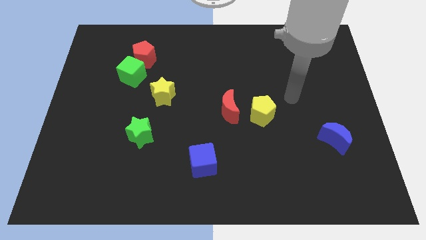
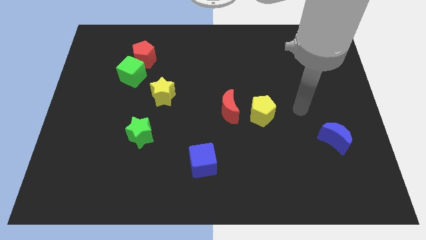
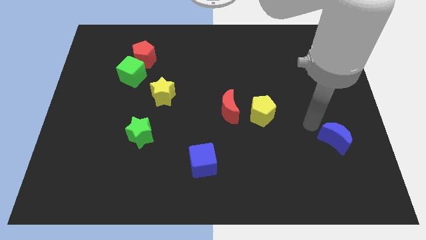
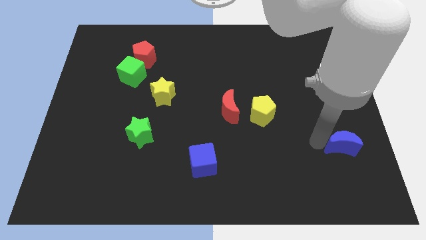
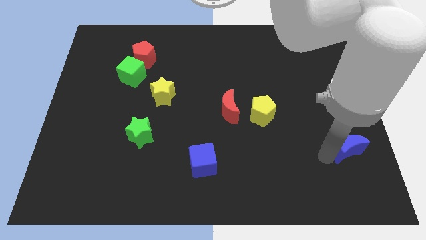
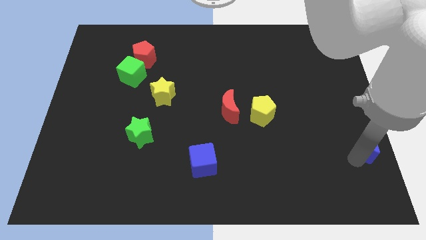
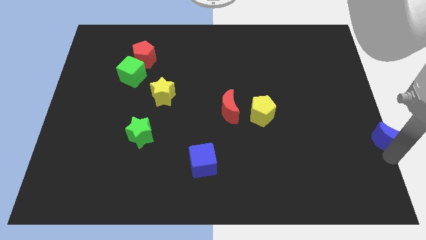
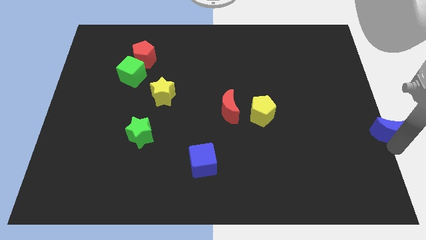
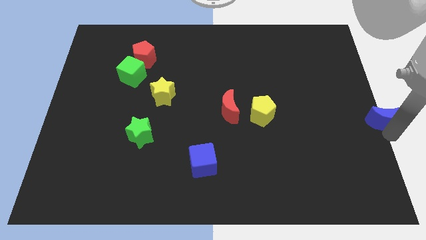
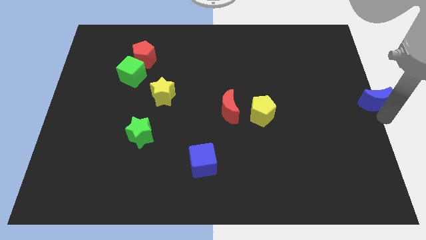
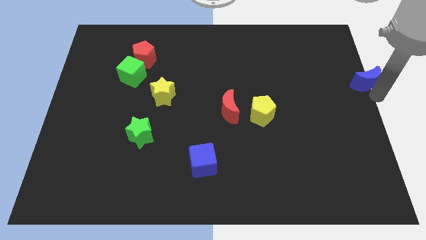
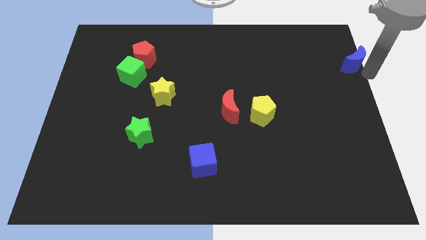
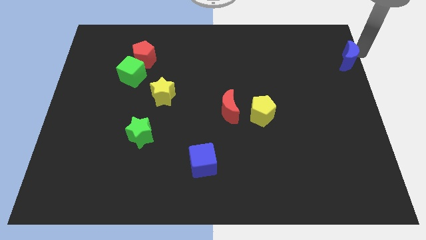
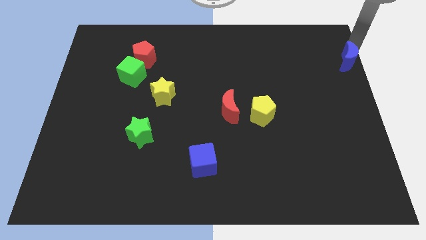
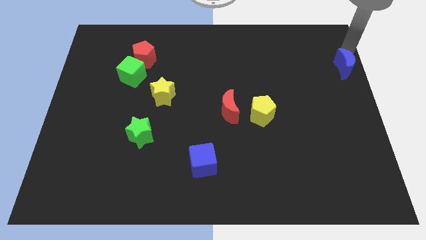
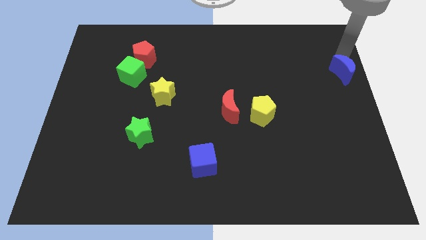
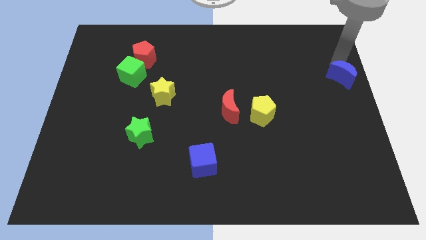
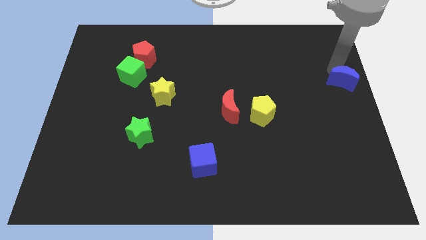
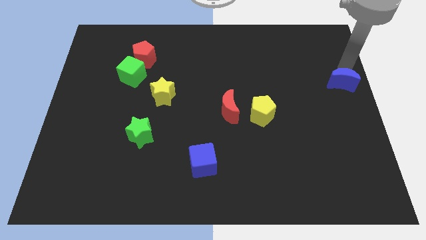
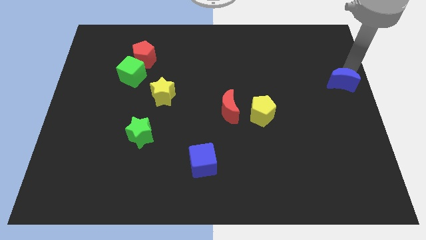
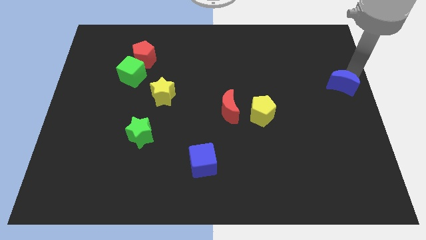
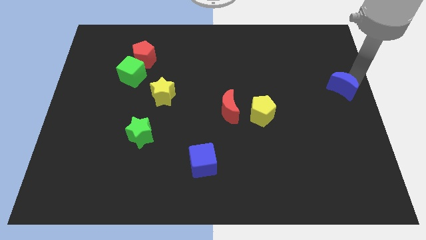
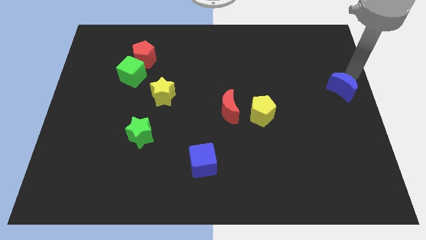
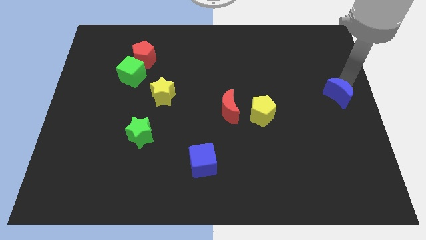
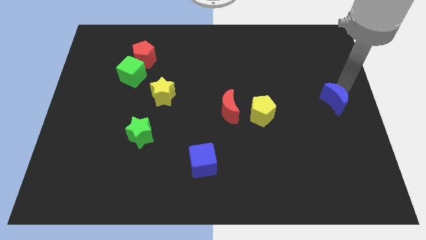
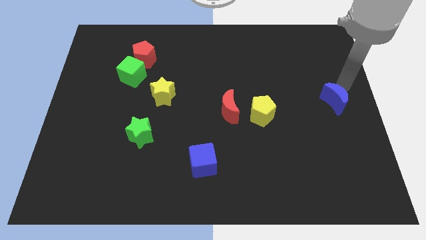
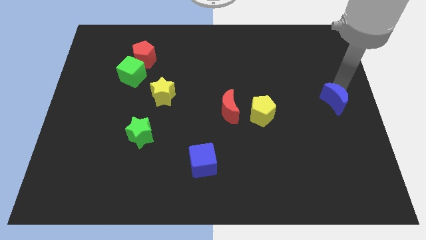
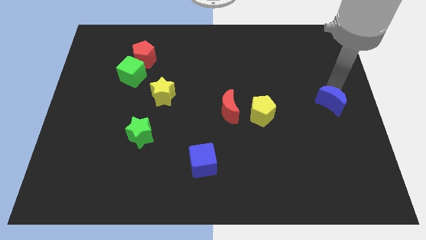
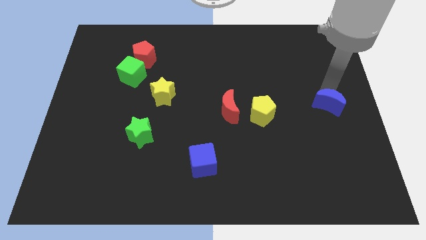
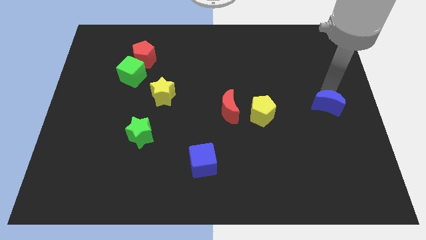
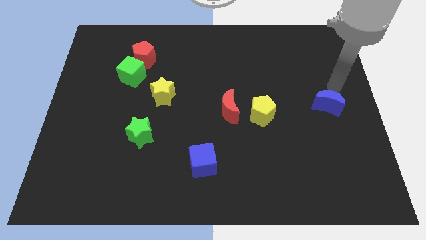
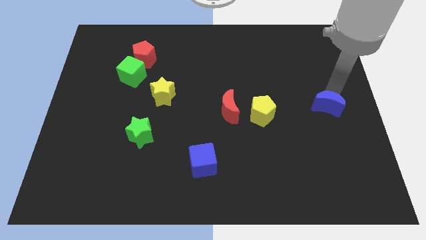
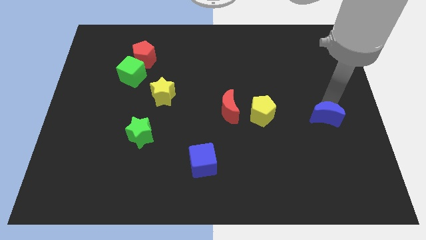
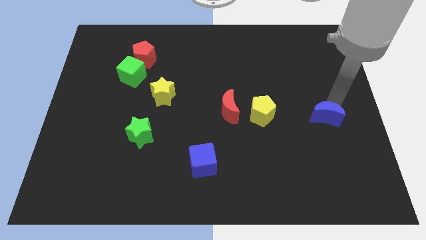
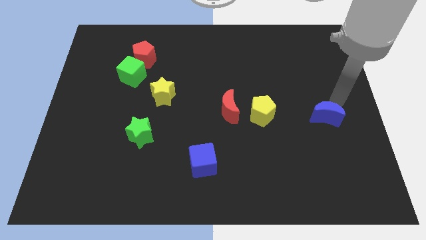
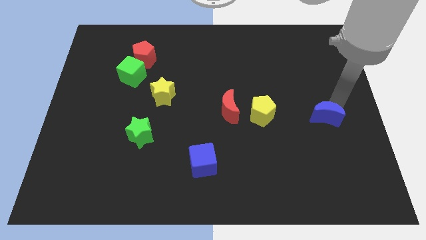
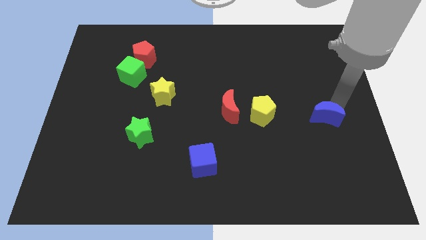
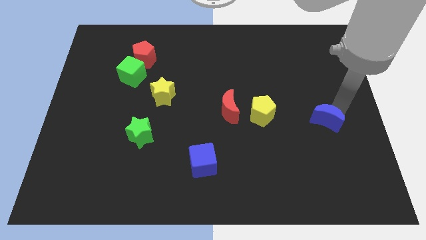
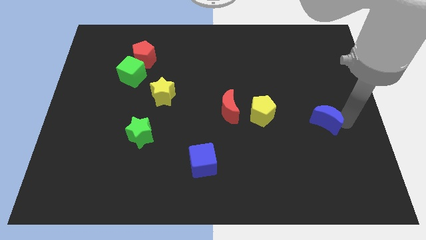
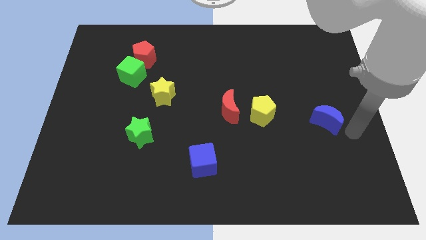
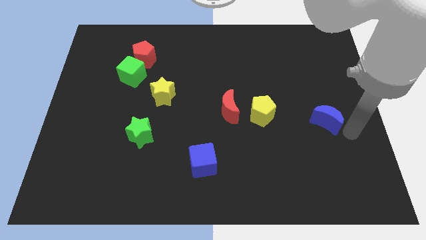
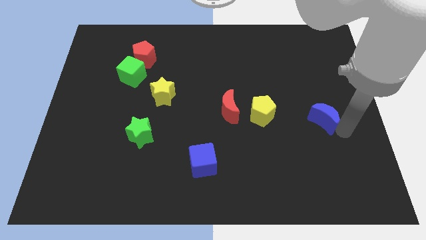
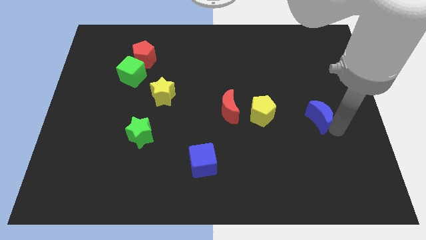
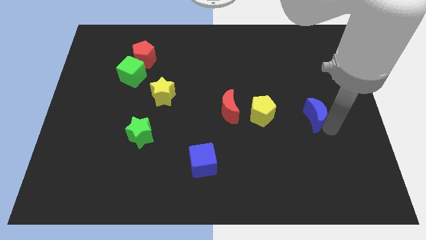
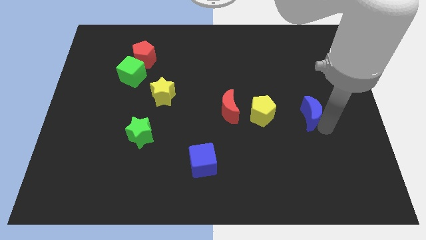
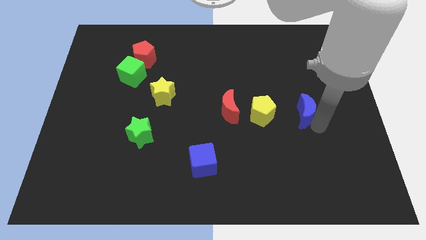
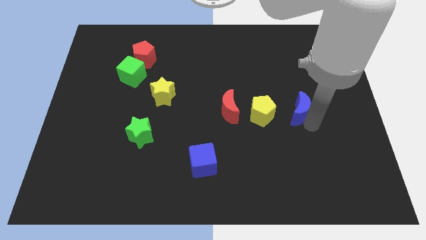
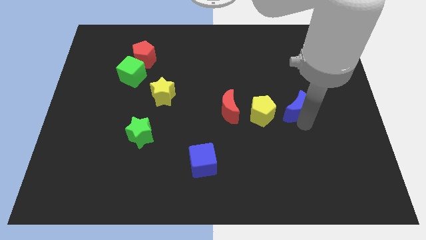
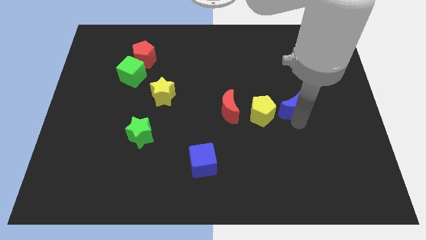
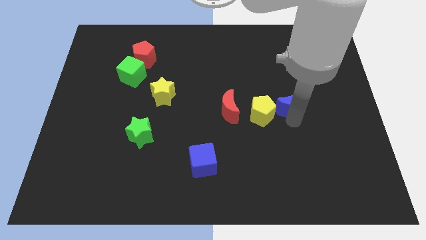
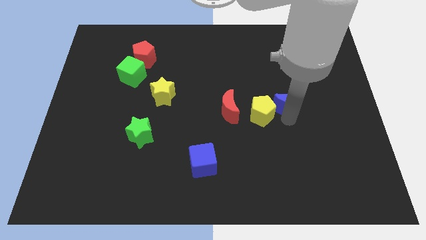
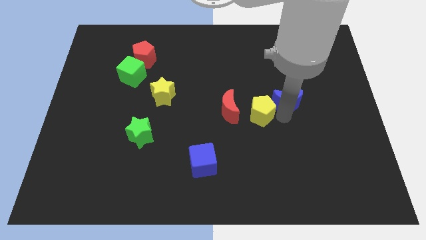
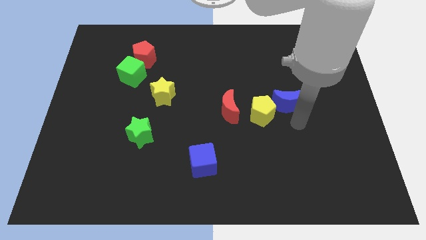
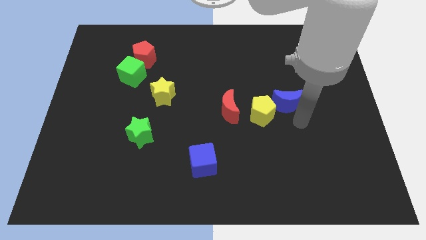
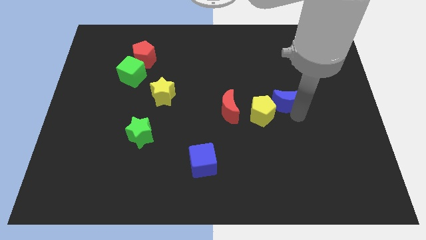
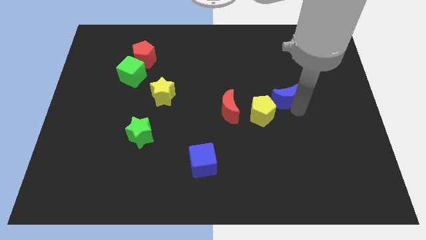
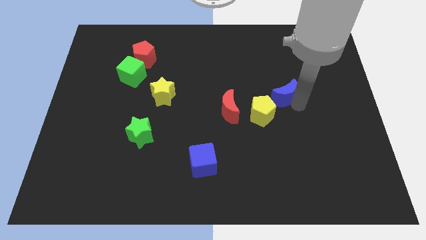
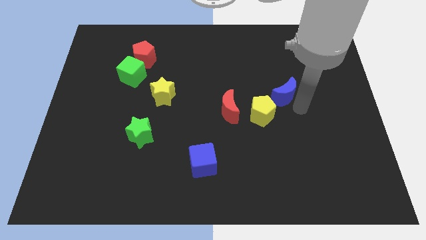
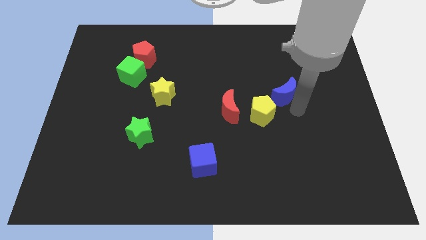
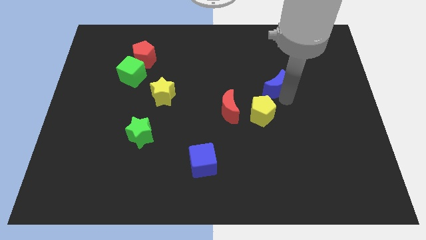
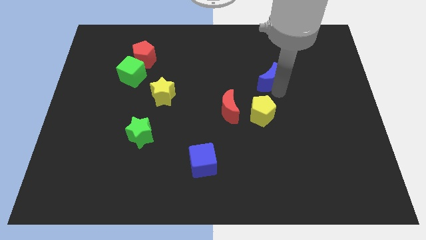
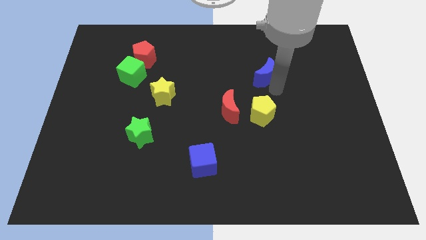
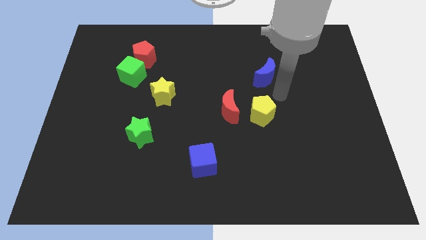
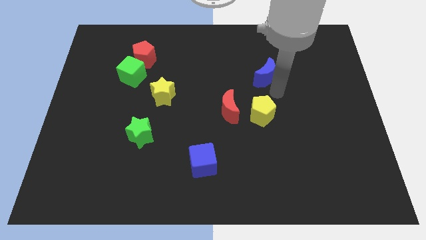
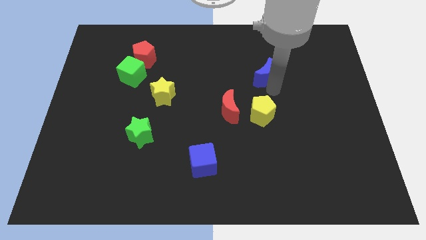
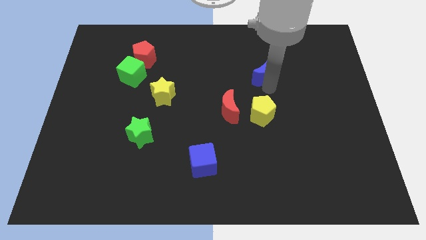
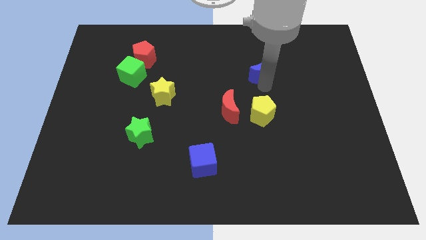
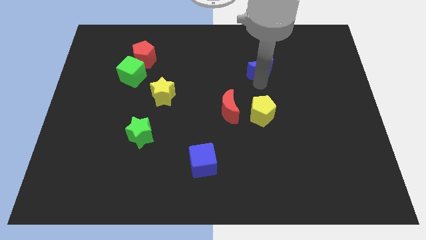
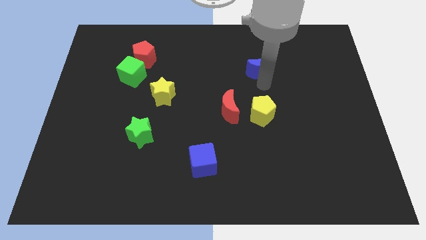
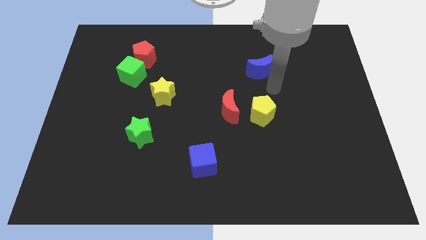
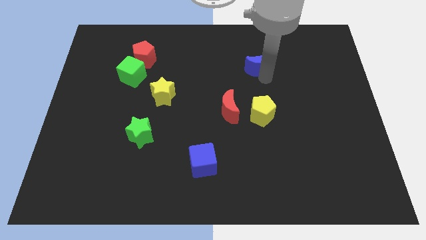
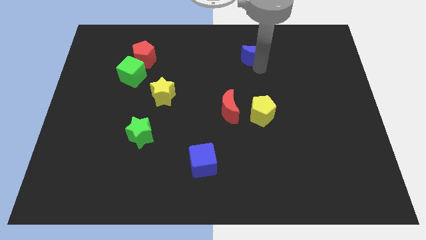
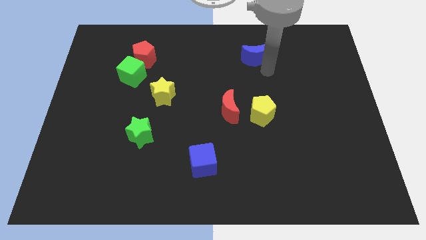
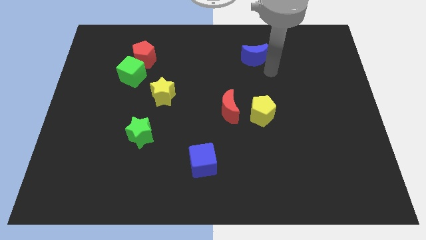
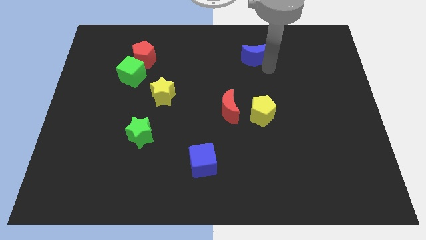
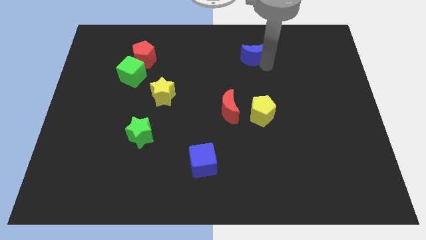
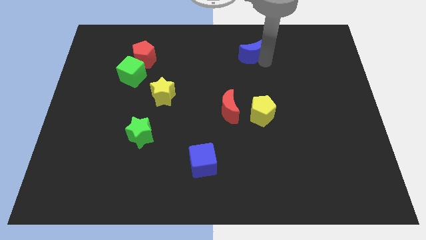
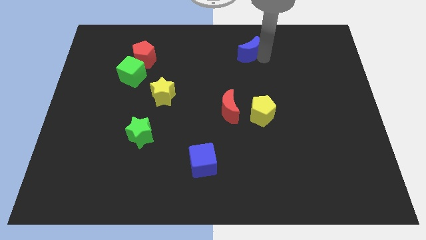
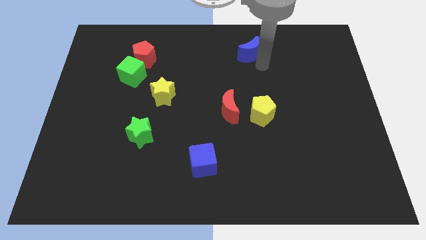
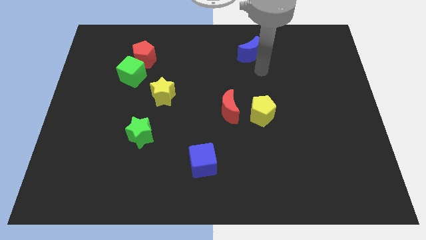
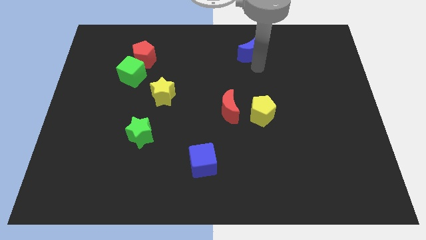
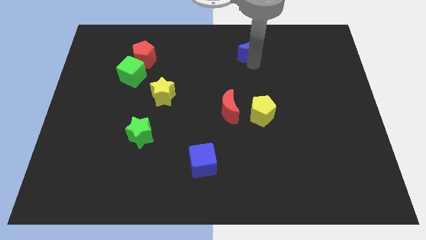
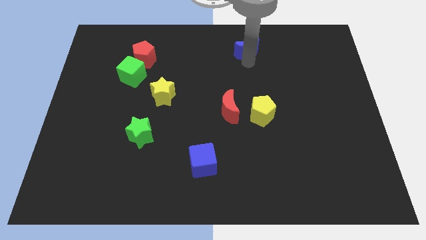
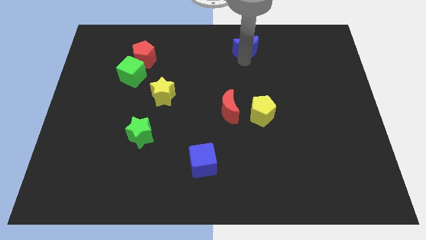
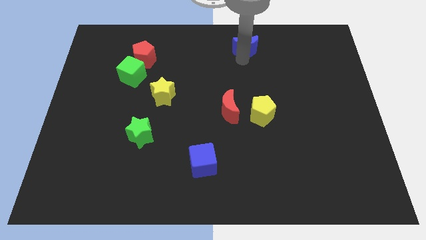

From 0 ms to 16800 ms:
put the blue moon to the towards your base
